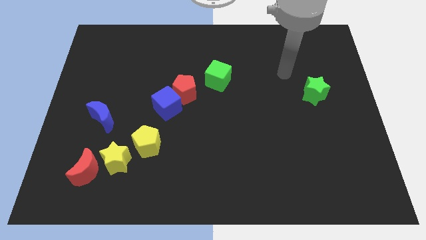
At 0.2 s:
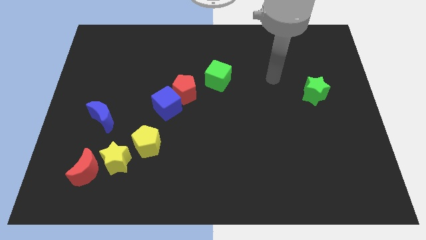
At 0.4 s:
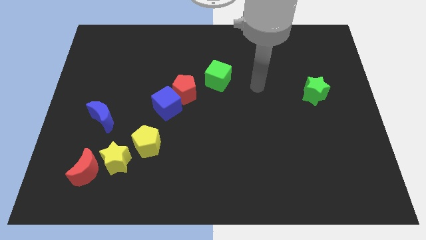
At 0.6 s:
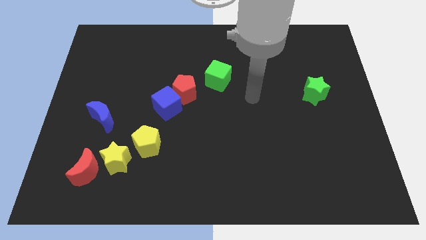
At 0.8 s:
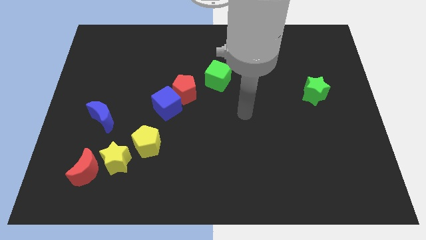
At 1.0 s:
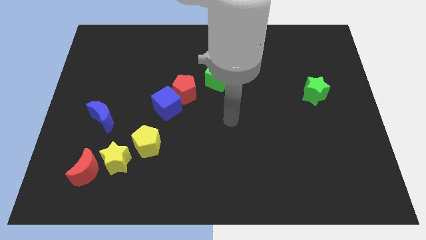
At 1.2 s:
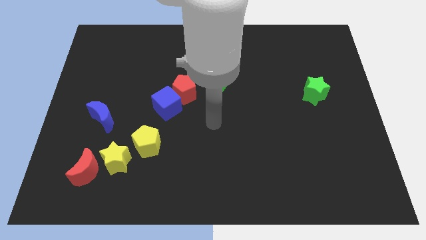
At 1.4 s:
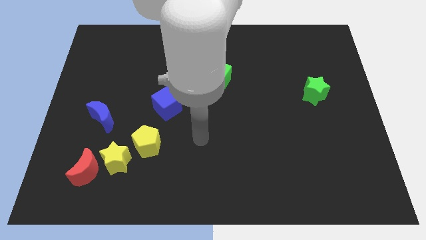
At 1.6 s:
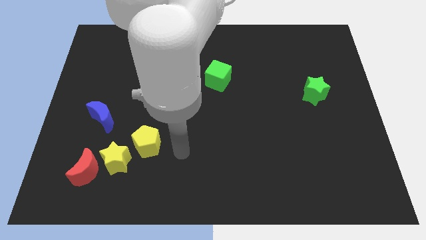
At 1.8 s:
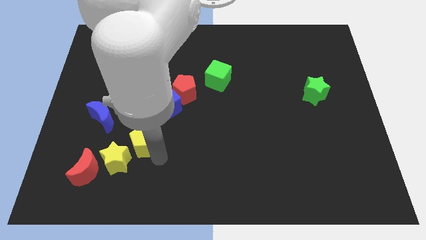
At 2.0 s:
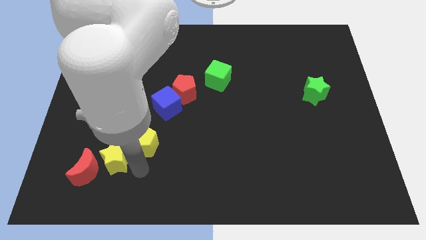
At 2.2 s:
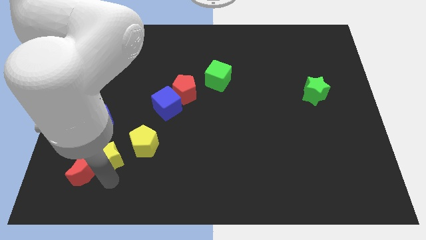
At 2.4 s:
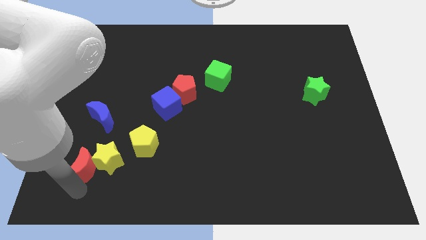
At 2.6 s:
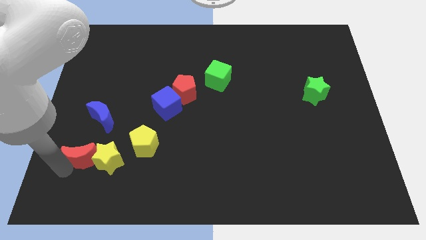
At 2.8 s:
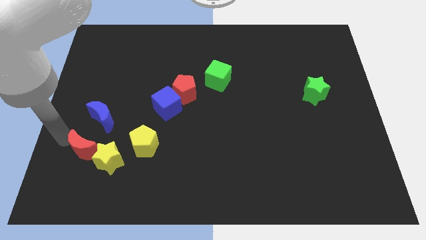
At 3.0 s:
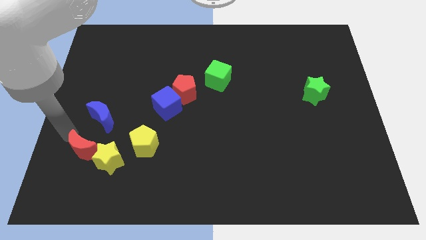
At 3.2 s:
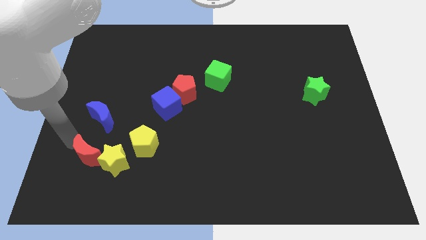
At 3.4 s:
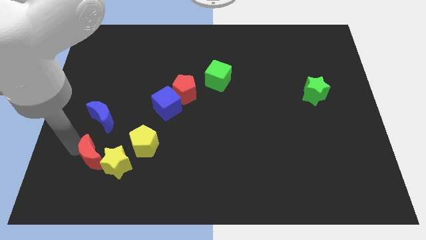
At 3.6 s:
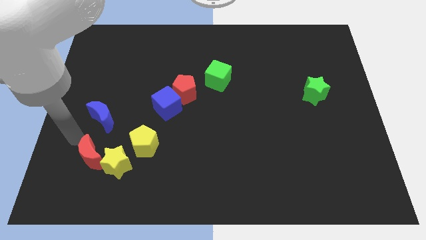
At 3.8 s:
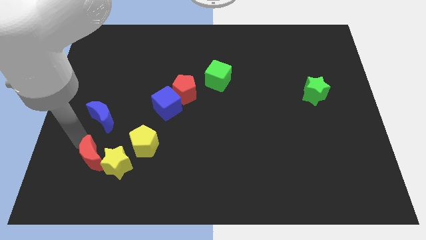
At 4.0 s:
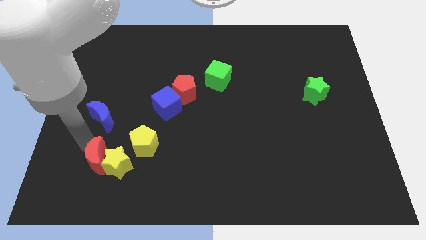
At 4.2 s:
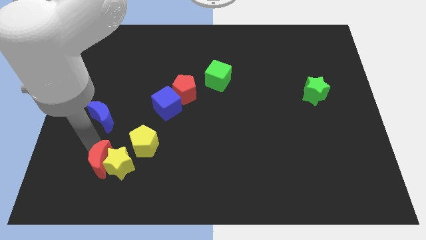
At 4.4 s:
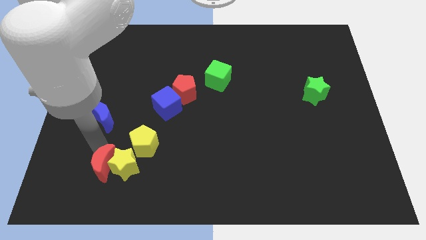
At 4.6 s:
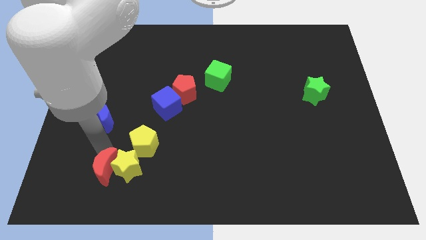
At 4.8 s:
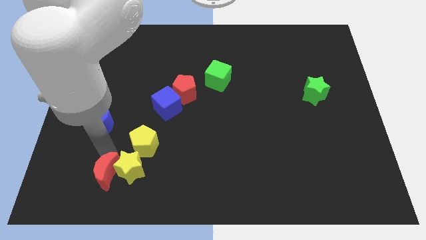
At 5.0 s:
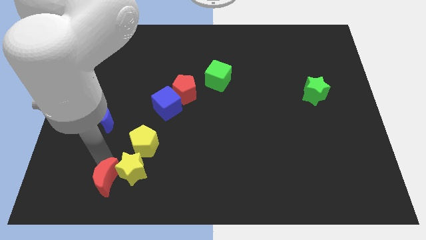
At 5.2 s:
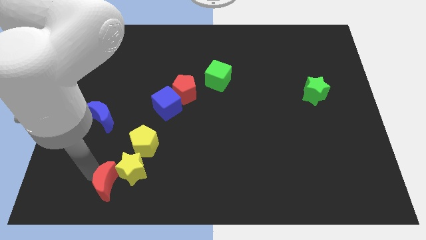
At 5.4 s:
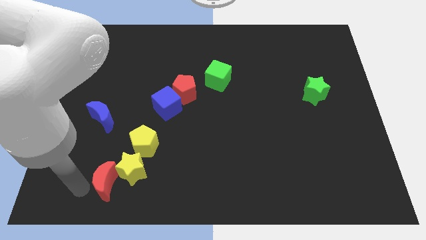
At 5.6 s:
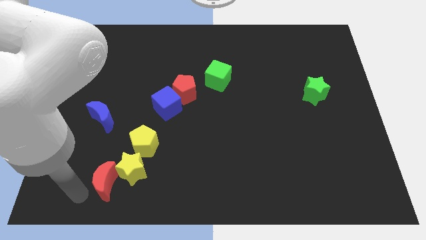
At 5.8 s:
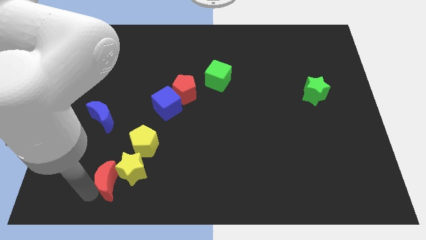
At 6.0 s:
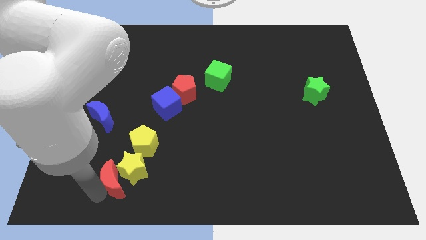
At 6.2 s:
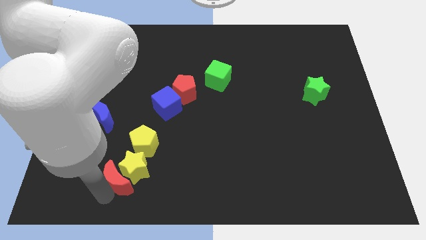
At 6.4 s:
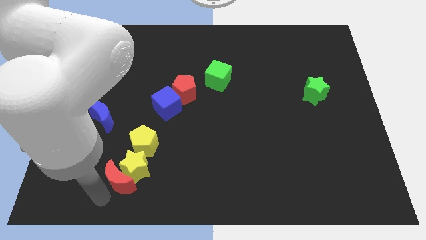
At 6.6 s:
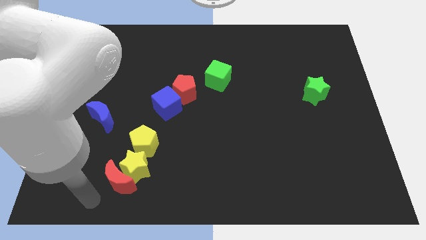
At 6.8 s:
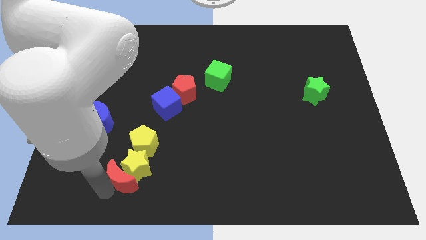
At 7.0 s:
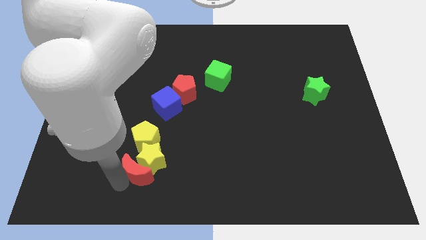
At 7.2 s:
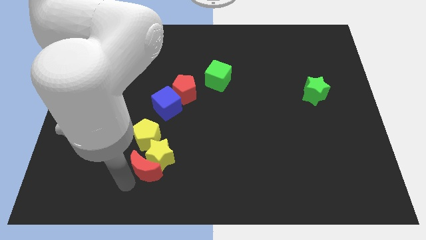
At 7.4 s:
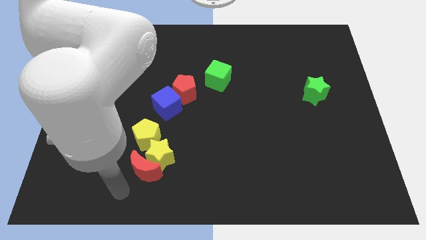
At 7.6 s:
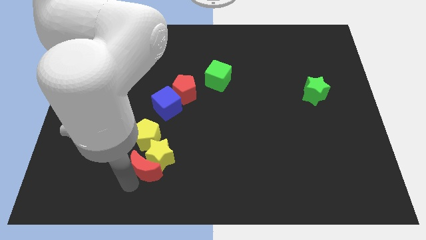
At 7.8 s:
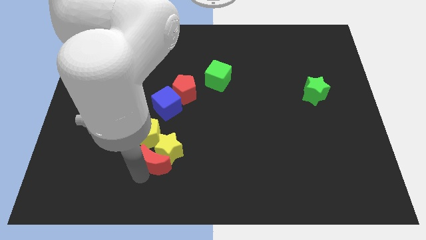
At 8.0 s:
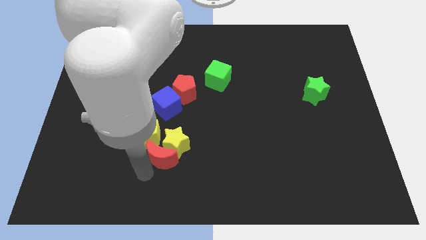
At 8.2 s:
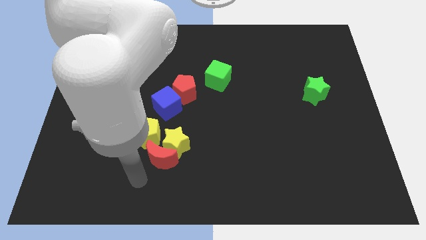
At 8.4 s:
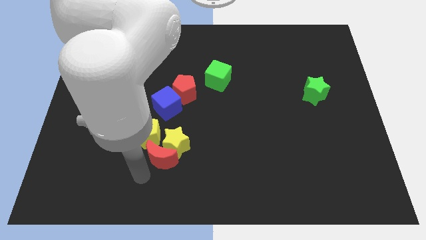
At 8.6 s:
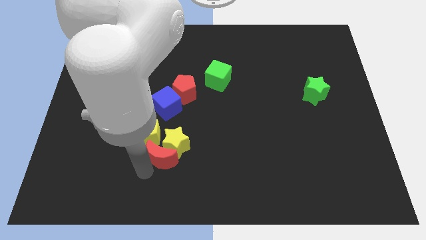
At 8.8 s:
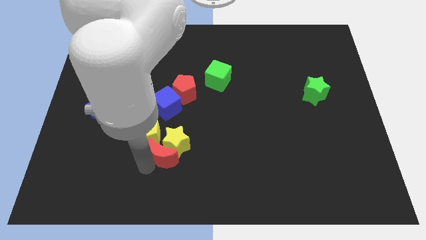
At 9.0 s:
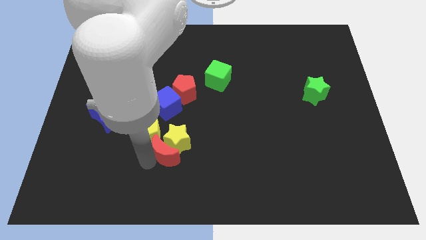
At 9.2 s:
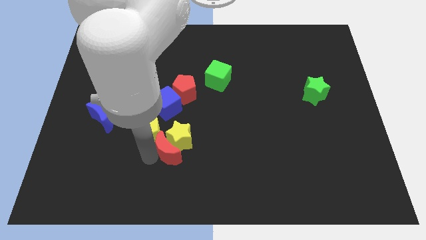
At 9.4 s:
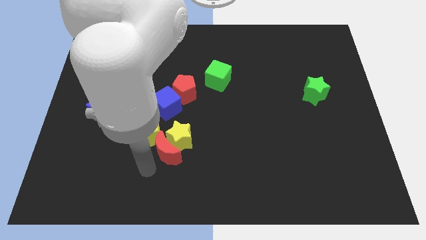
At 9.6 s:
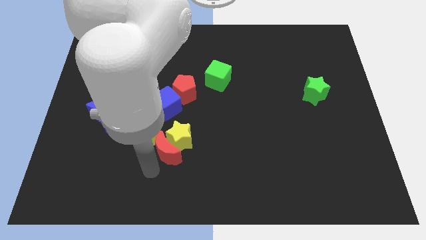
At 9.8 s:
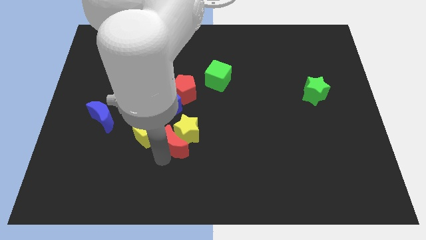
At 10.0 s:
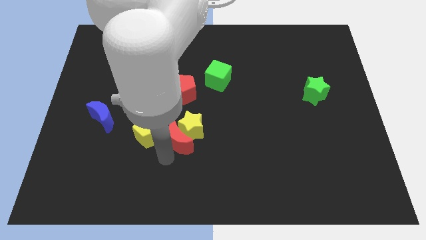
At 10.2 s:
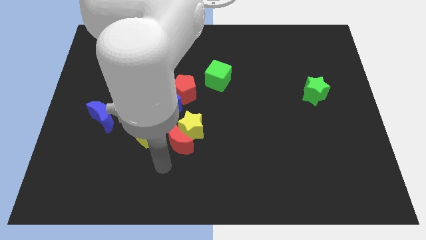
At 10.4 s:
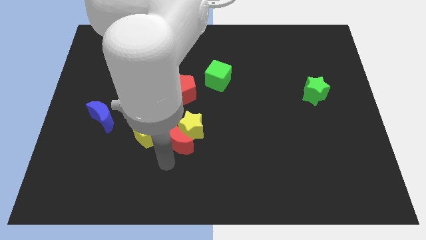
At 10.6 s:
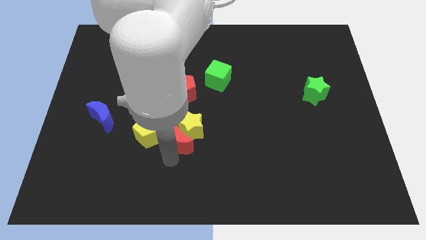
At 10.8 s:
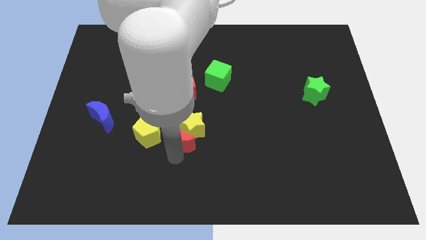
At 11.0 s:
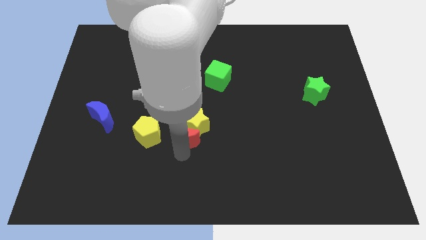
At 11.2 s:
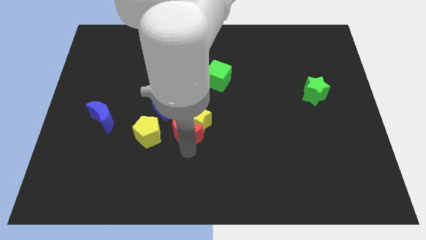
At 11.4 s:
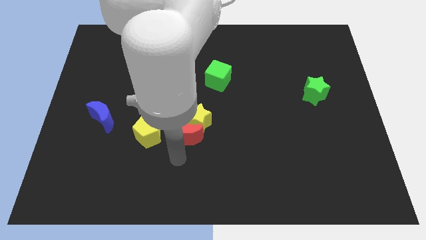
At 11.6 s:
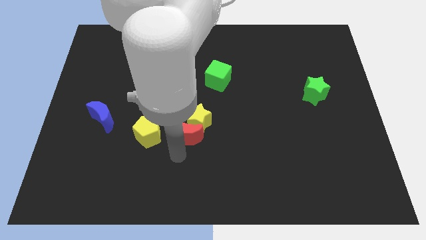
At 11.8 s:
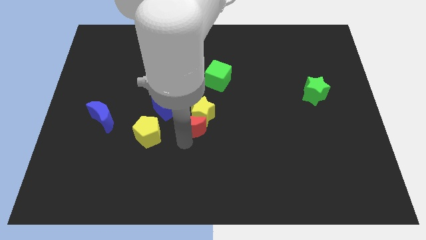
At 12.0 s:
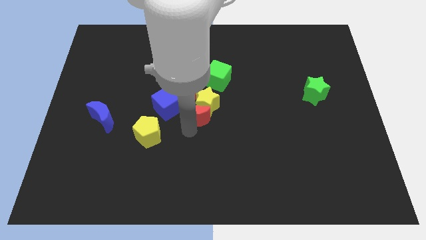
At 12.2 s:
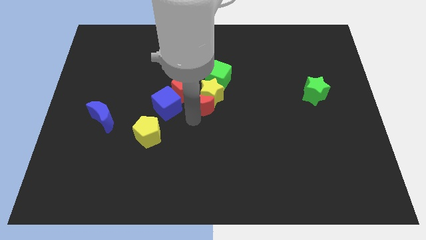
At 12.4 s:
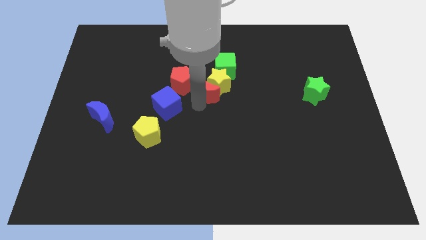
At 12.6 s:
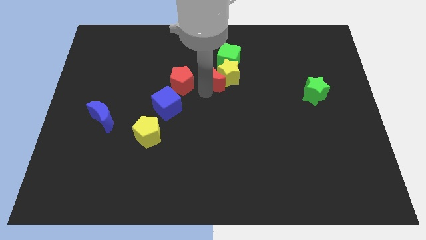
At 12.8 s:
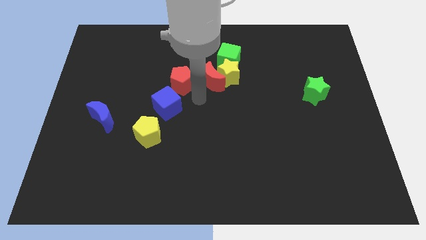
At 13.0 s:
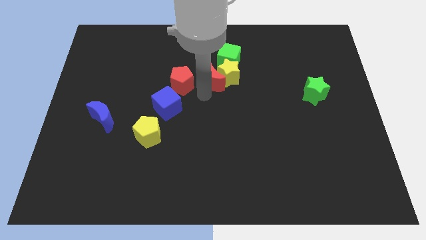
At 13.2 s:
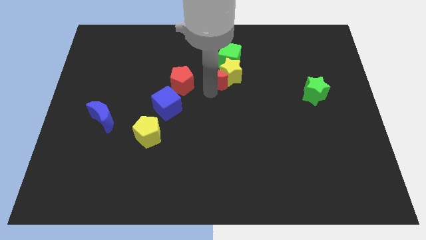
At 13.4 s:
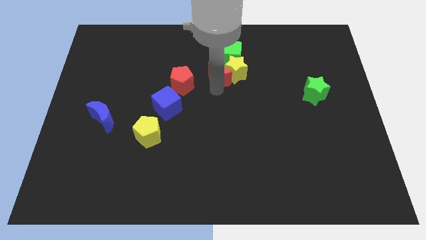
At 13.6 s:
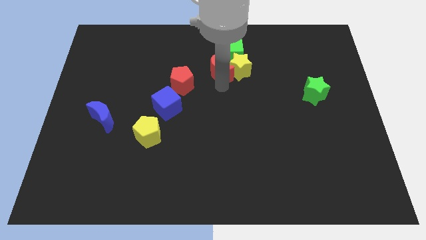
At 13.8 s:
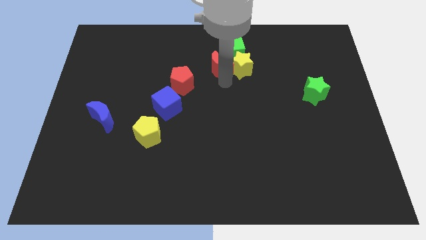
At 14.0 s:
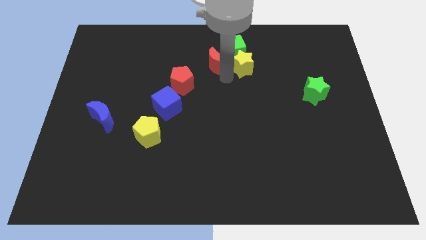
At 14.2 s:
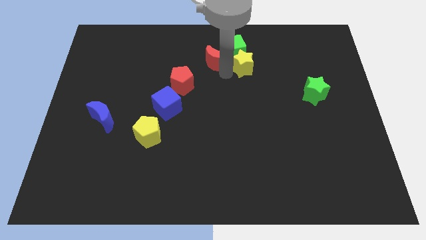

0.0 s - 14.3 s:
put the red moon to the green cube
